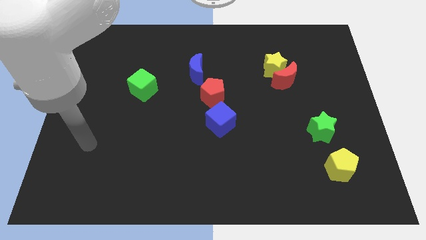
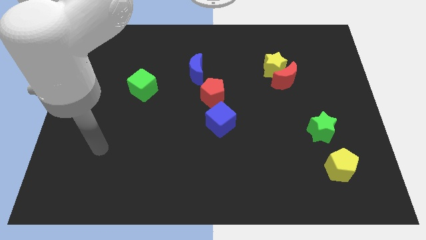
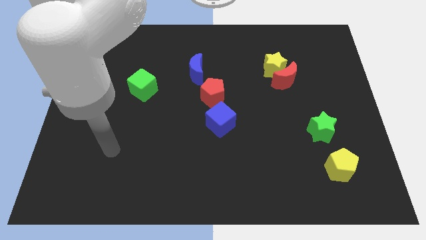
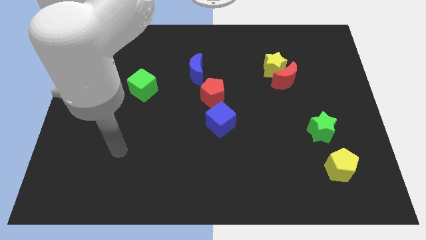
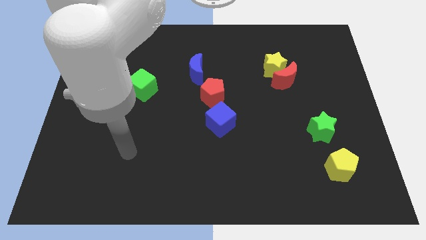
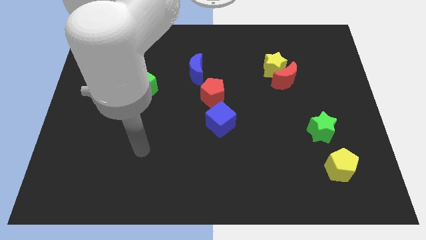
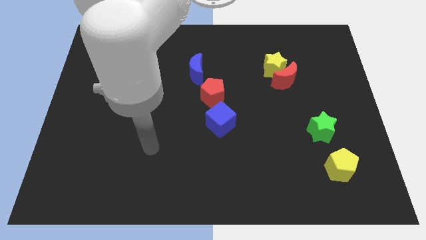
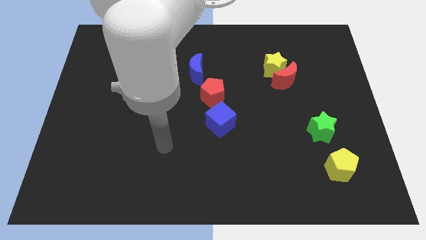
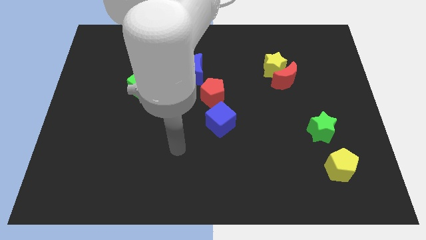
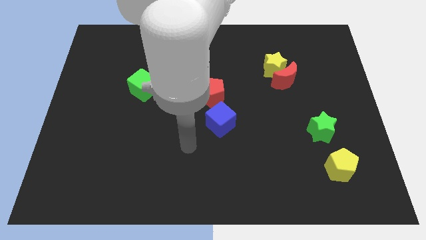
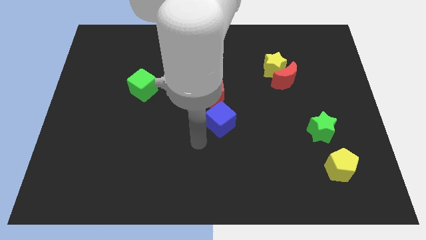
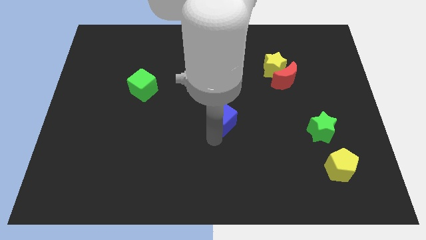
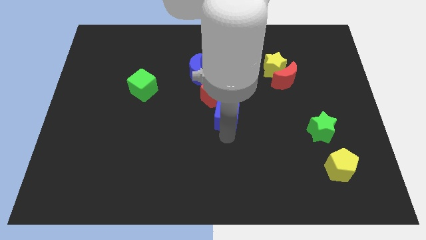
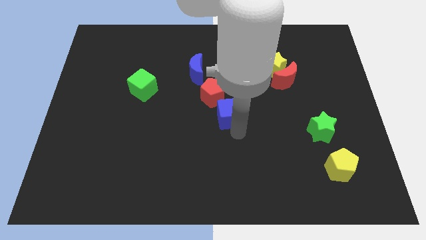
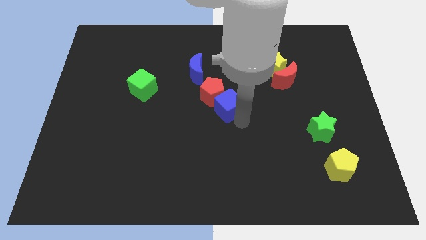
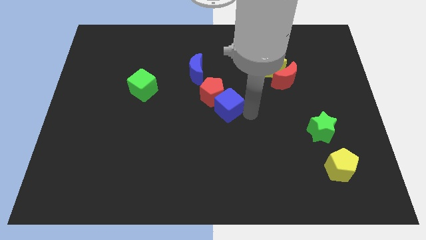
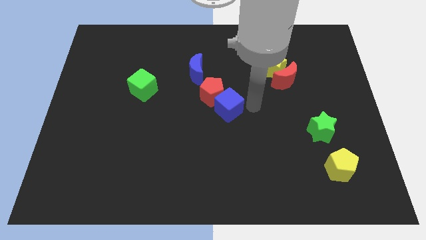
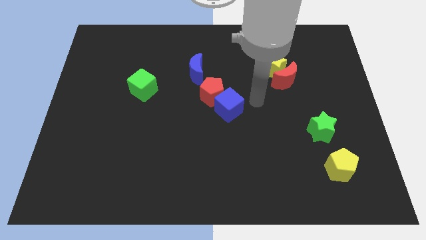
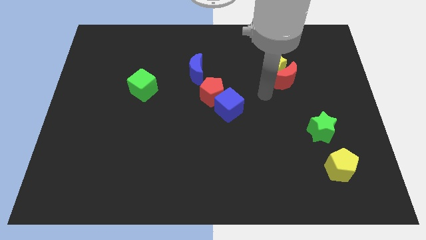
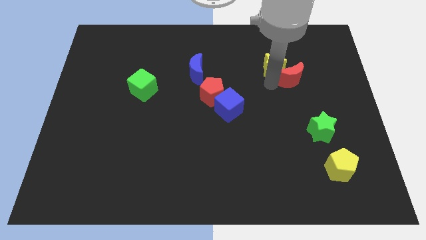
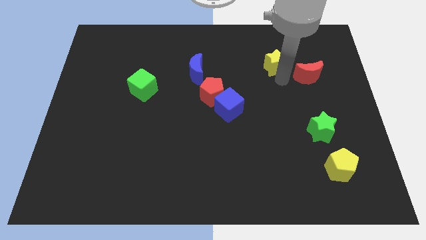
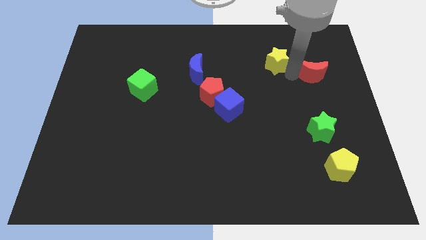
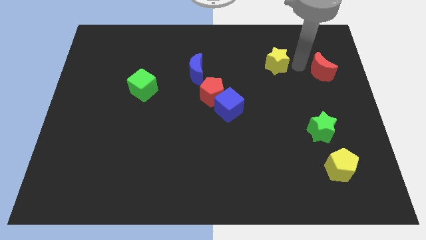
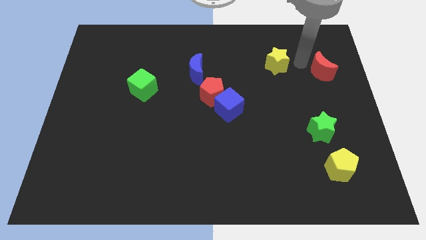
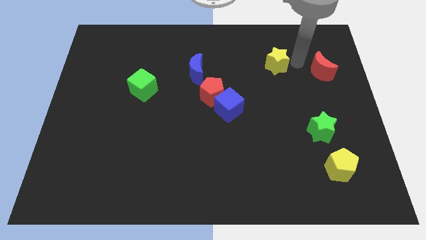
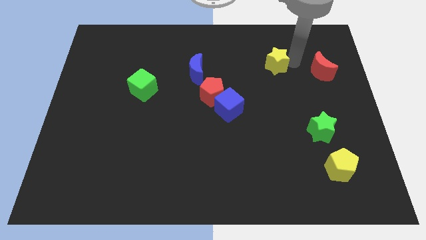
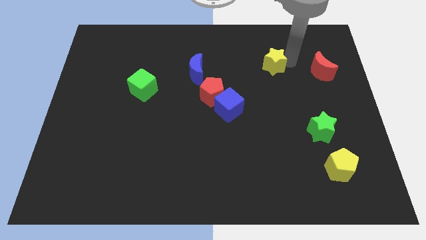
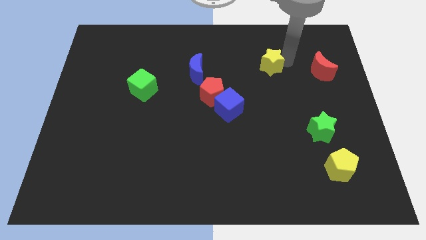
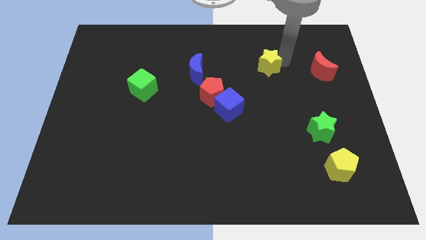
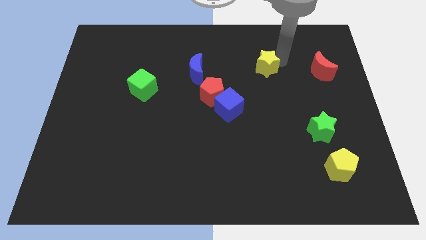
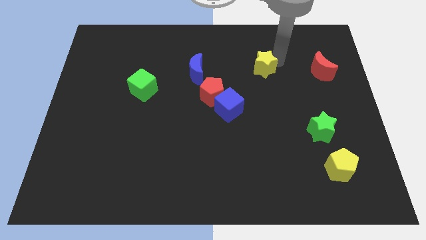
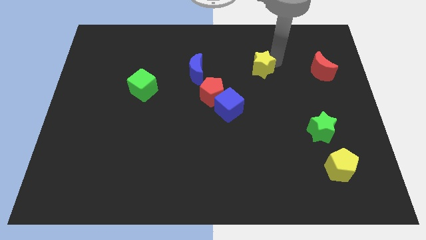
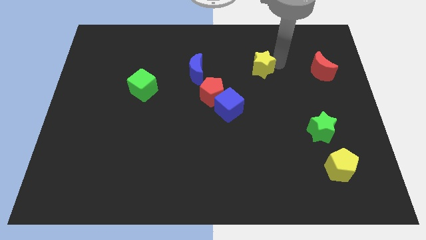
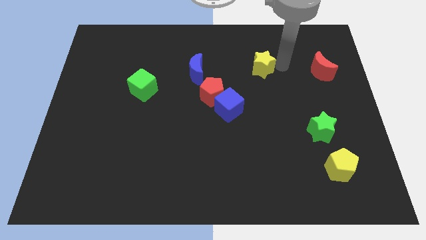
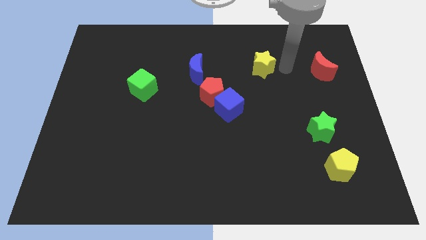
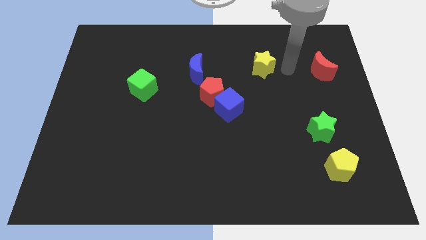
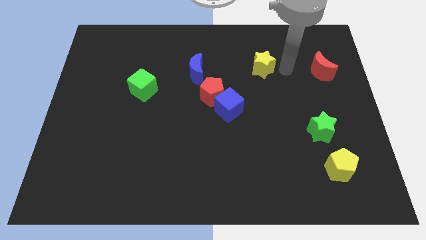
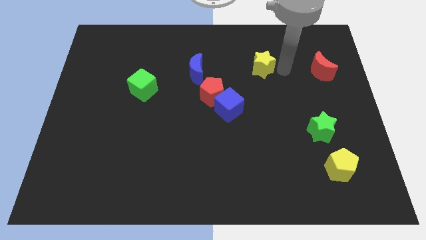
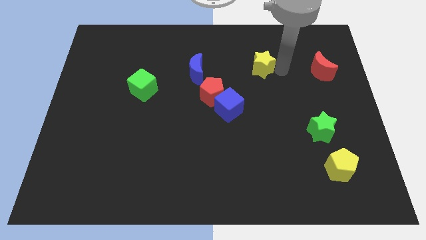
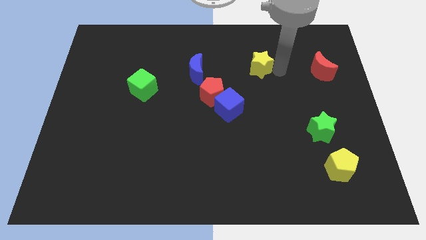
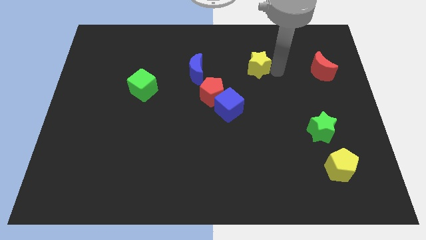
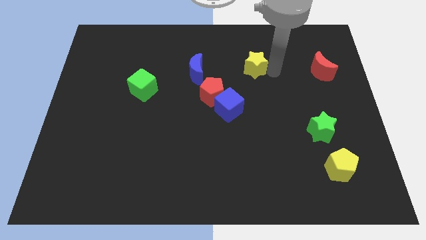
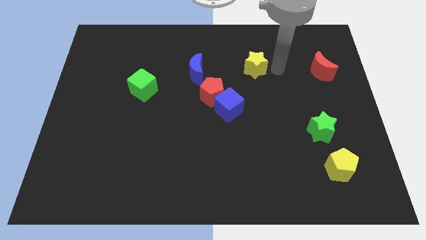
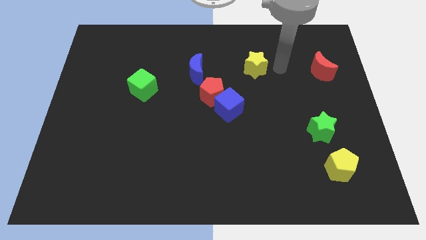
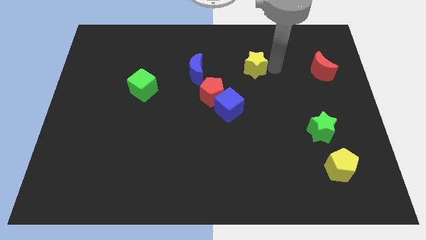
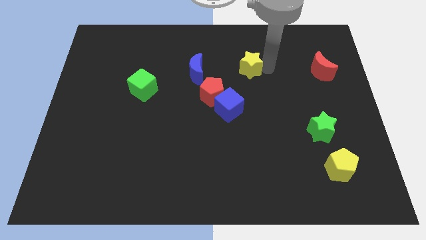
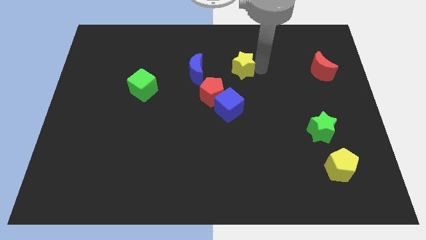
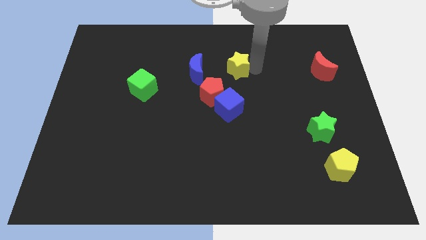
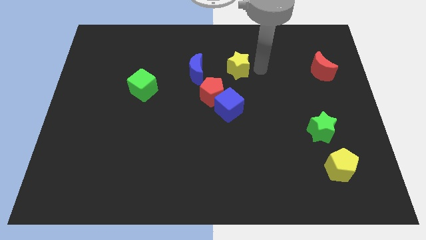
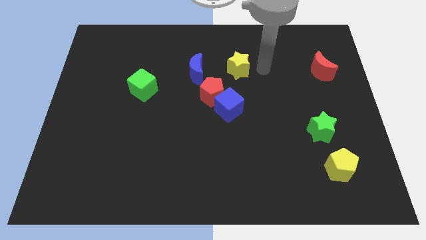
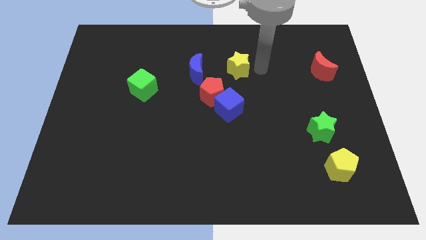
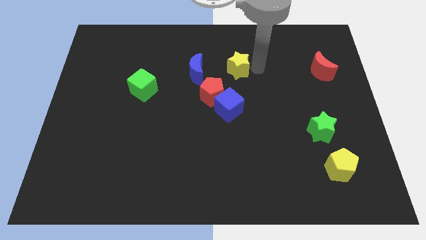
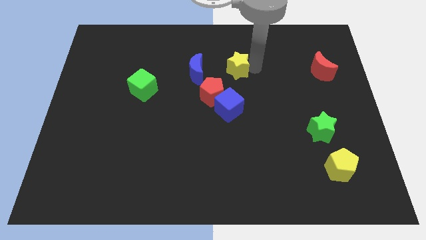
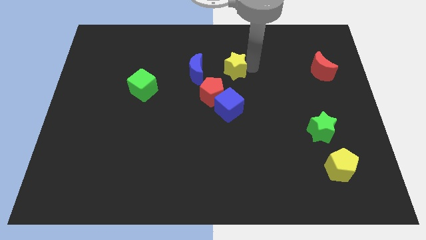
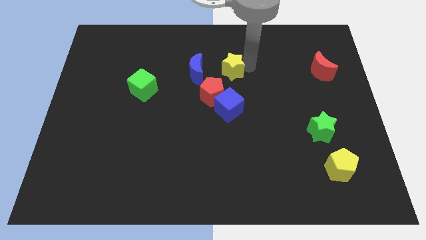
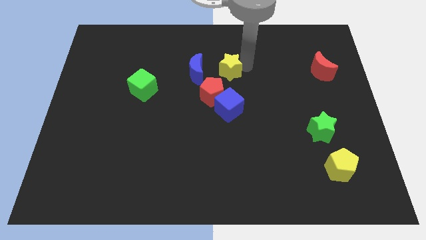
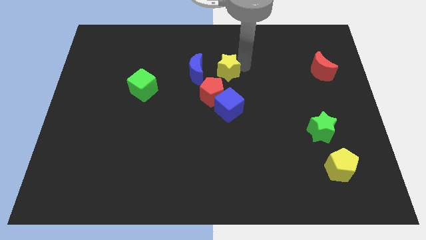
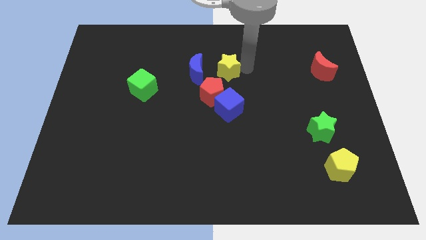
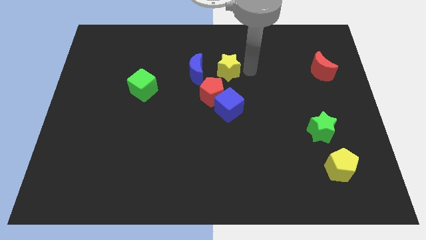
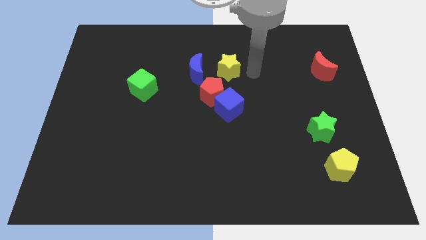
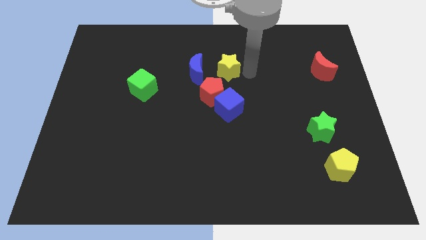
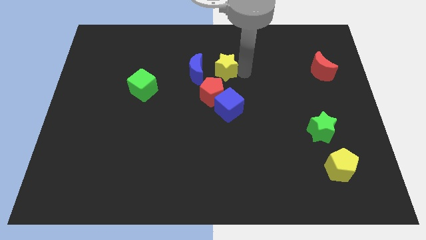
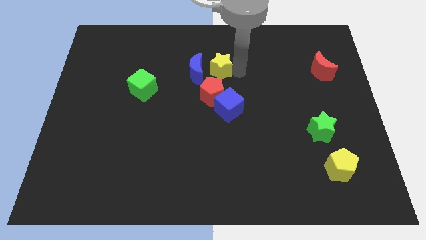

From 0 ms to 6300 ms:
push the yellow star next to the blue moon

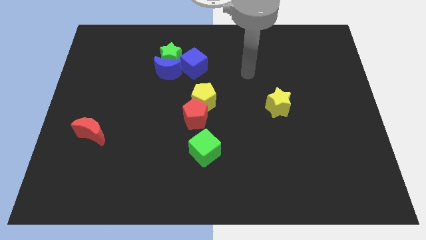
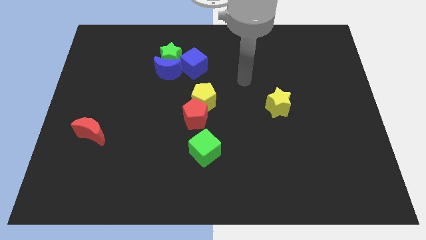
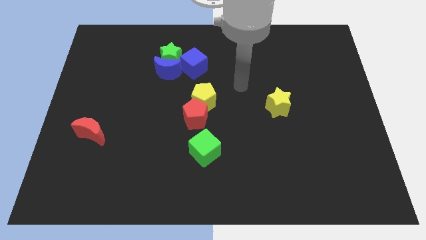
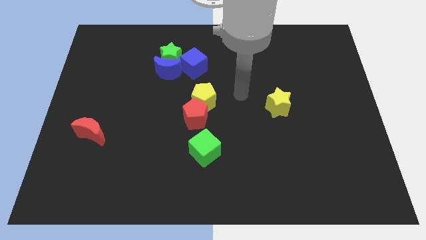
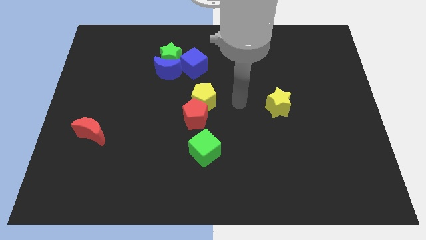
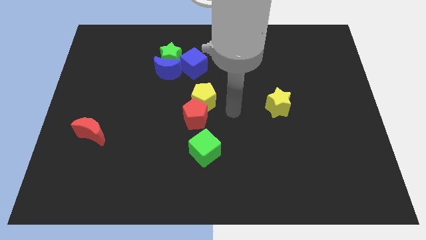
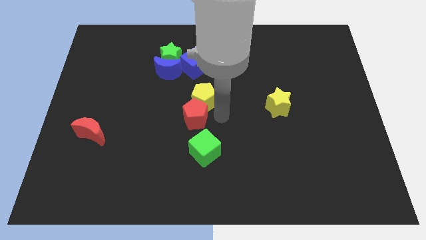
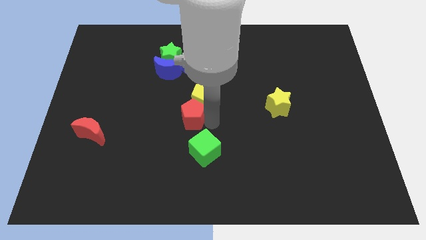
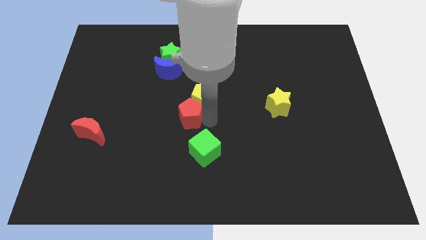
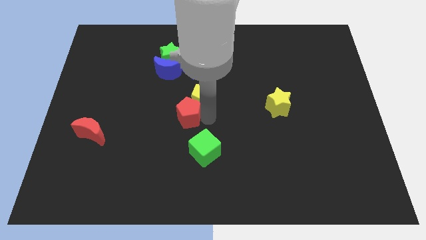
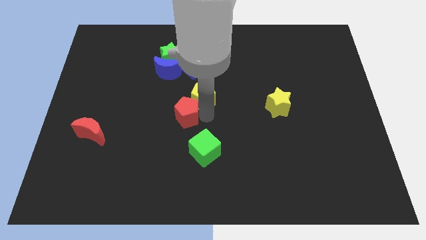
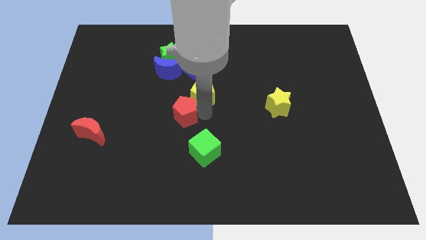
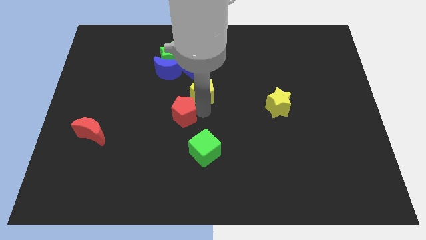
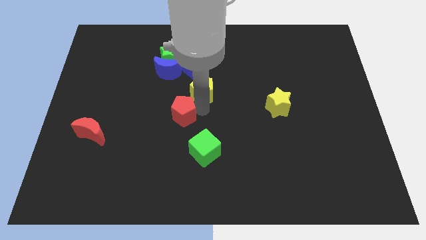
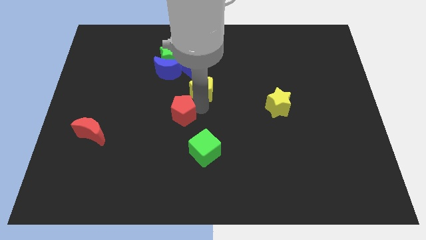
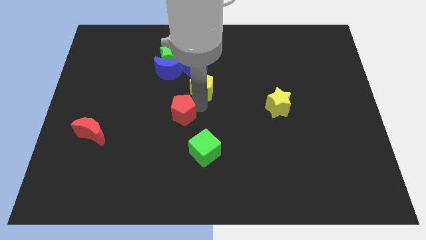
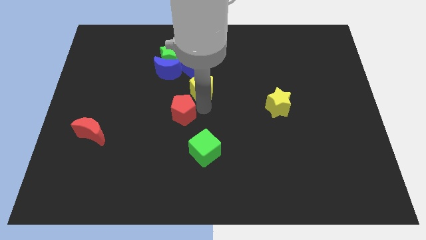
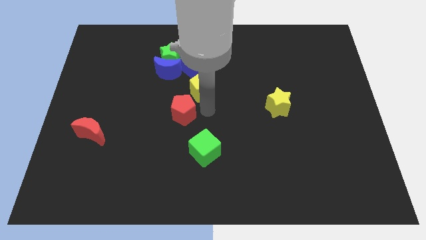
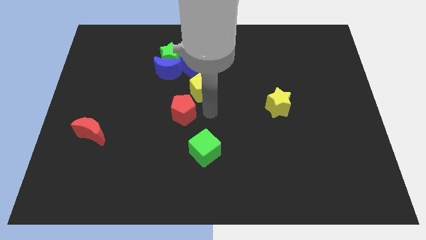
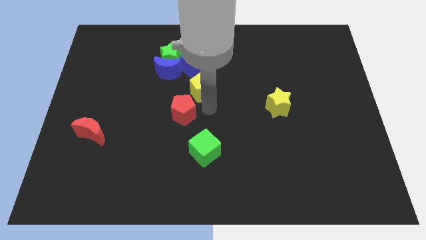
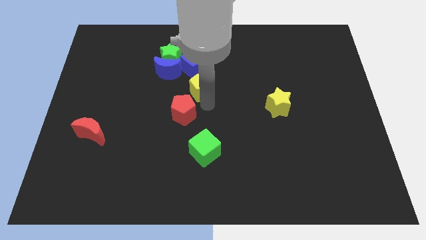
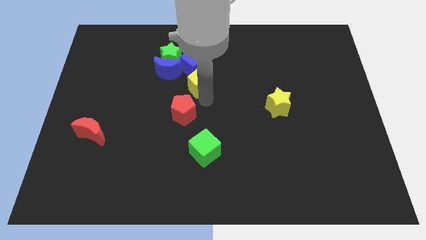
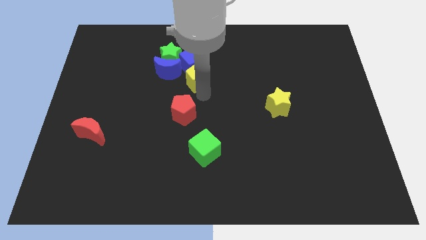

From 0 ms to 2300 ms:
put the yellow pentagon towards the blue cube
